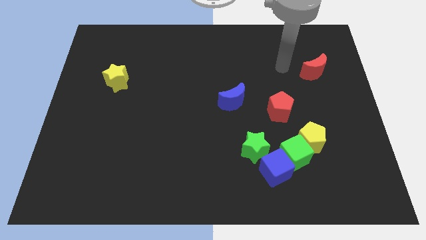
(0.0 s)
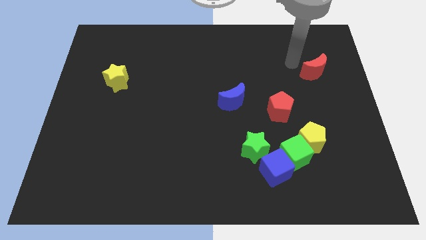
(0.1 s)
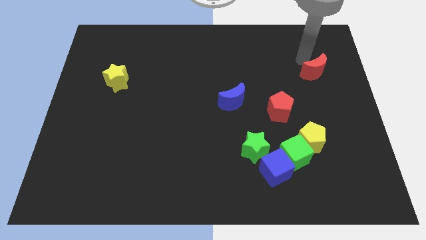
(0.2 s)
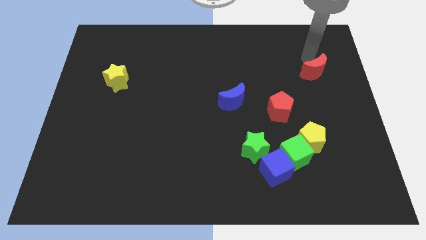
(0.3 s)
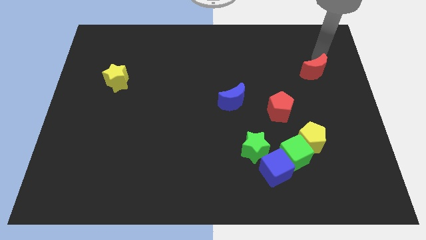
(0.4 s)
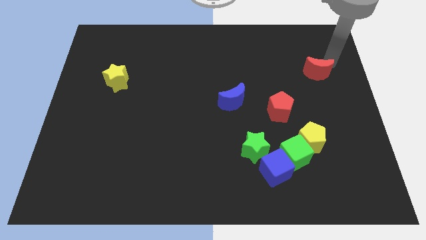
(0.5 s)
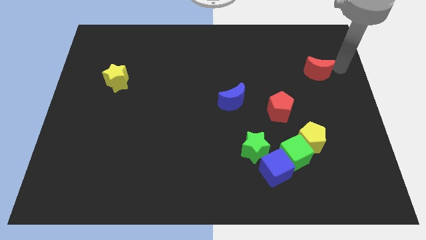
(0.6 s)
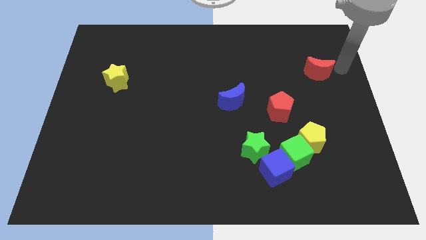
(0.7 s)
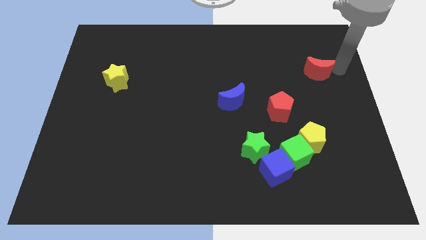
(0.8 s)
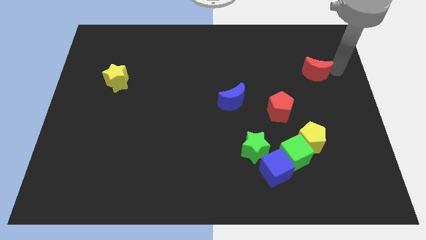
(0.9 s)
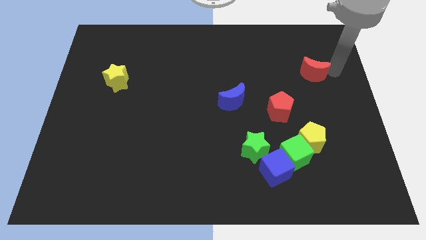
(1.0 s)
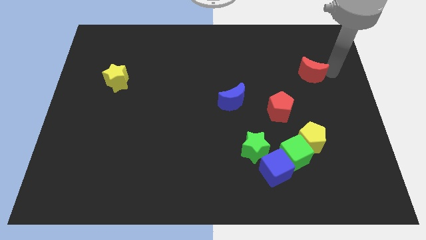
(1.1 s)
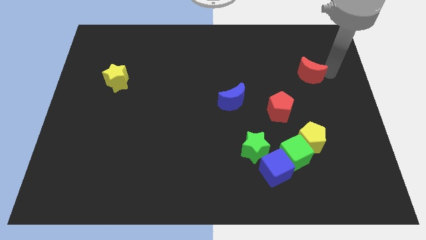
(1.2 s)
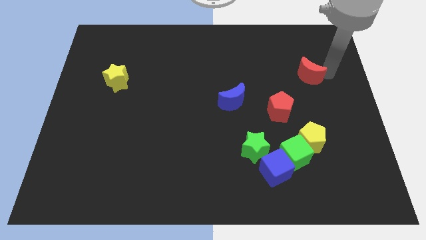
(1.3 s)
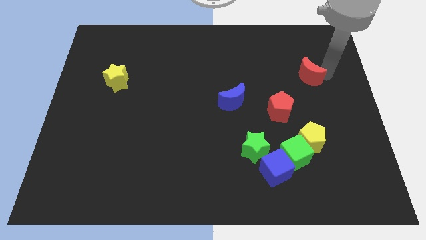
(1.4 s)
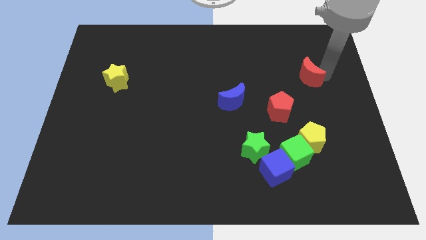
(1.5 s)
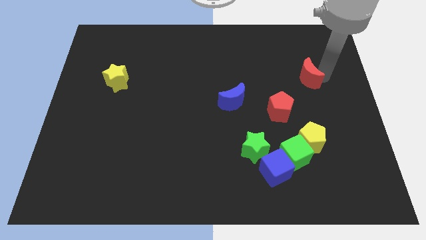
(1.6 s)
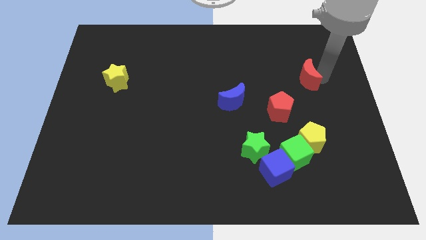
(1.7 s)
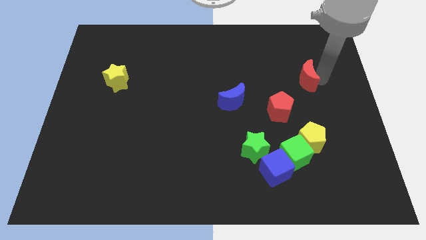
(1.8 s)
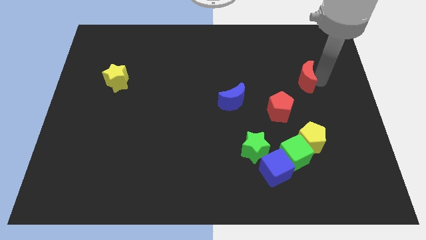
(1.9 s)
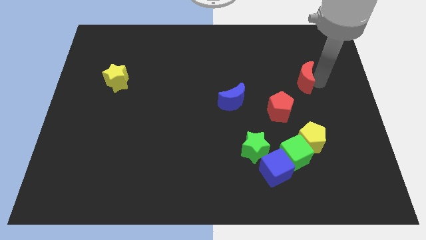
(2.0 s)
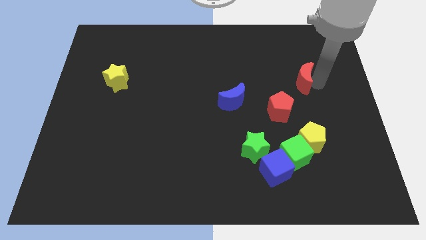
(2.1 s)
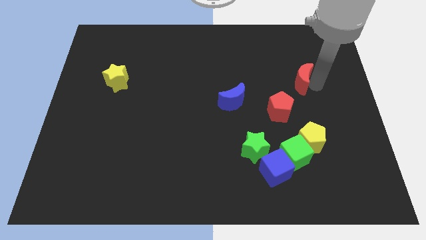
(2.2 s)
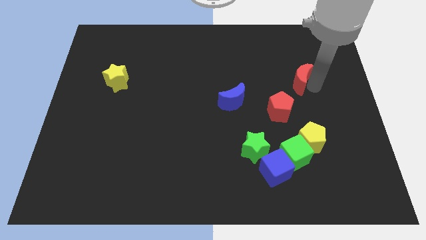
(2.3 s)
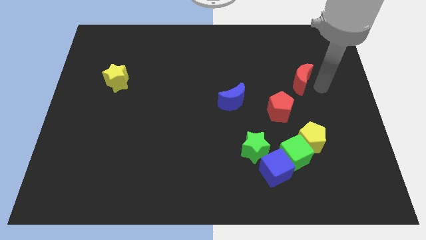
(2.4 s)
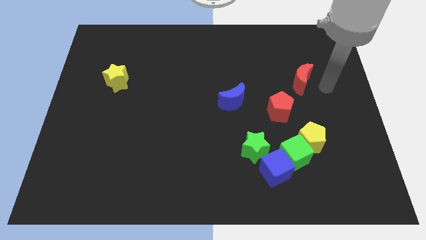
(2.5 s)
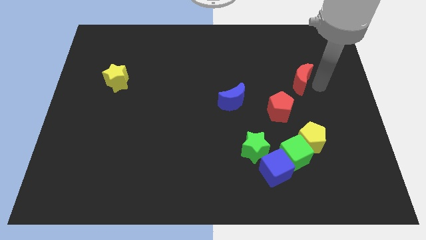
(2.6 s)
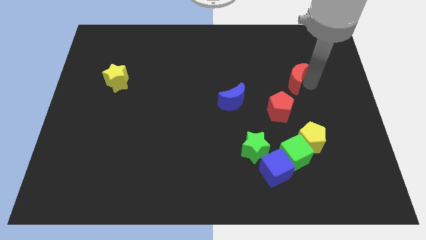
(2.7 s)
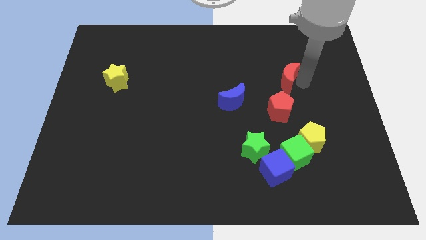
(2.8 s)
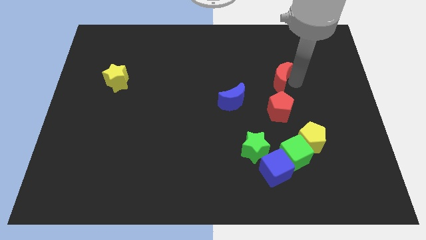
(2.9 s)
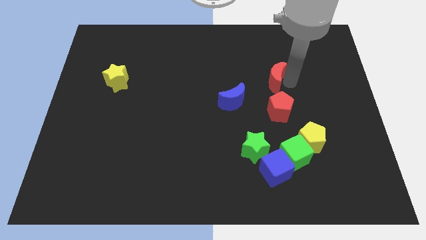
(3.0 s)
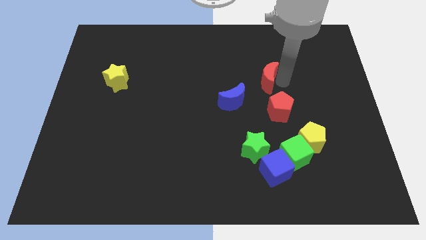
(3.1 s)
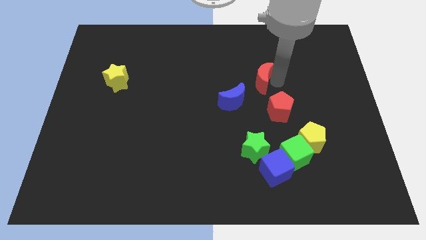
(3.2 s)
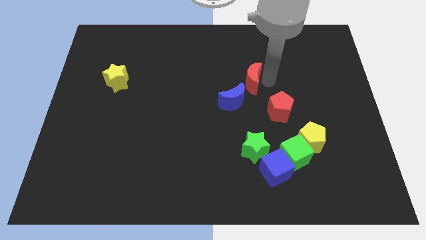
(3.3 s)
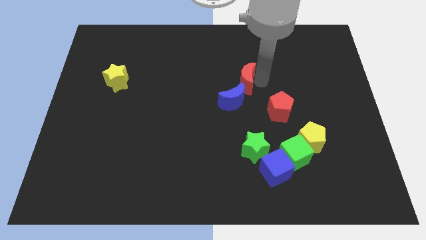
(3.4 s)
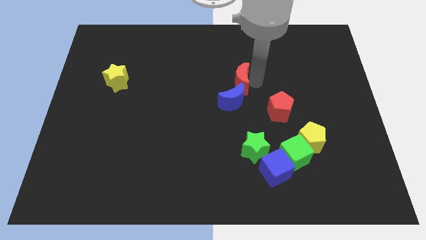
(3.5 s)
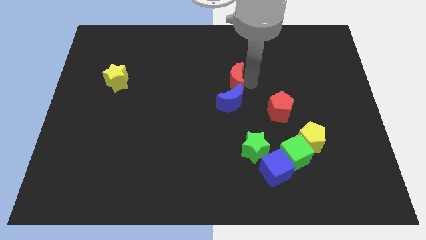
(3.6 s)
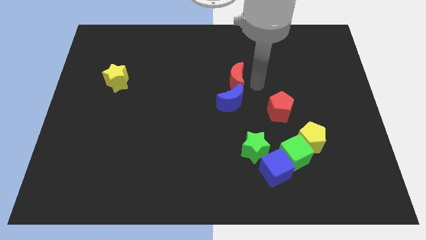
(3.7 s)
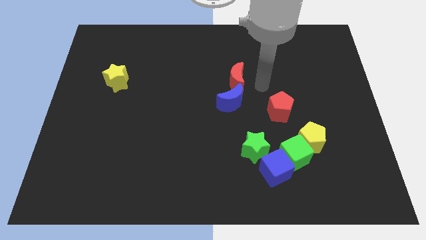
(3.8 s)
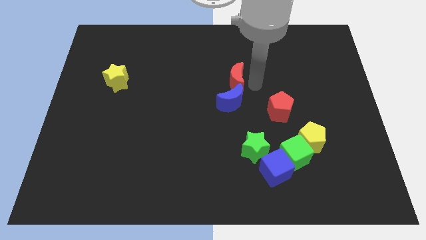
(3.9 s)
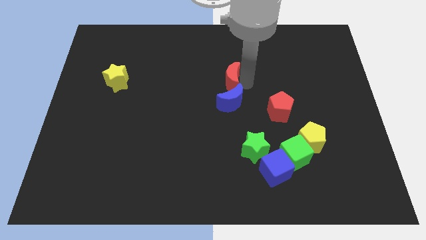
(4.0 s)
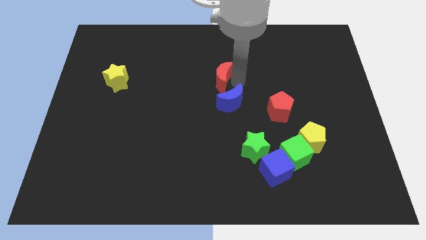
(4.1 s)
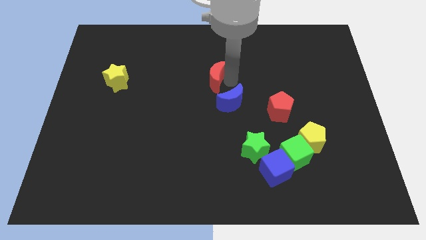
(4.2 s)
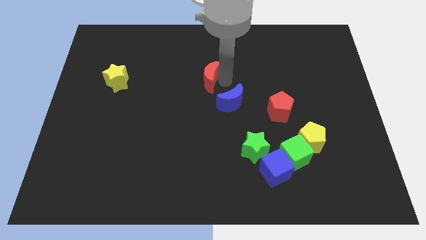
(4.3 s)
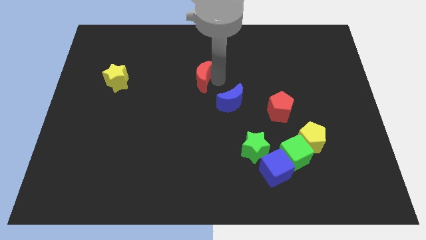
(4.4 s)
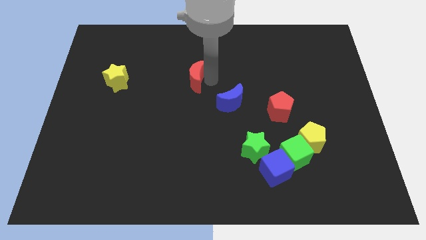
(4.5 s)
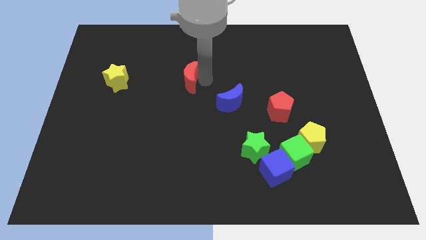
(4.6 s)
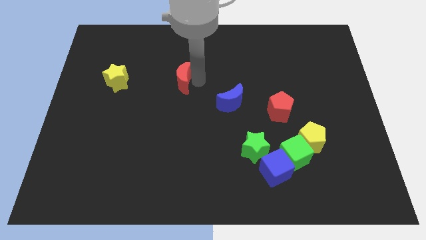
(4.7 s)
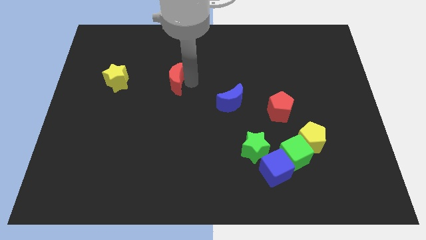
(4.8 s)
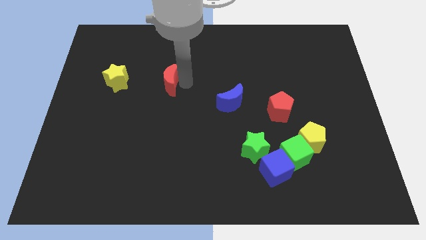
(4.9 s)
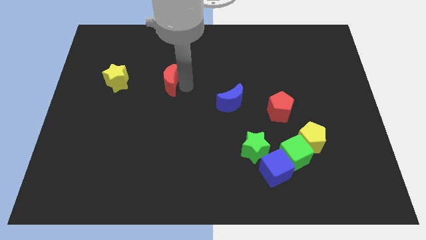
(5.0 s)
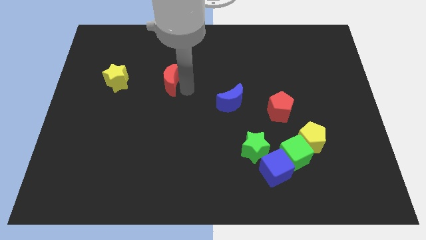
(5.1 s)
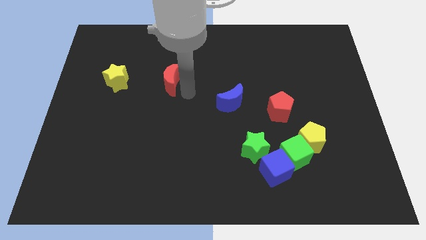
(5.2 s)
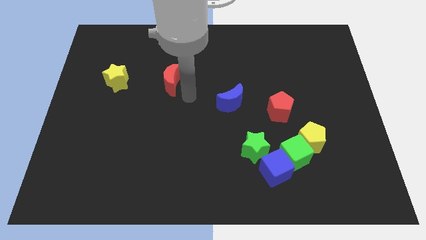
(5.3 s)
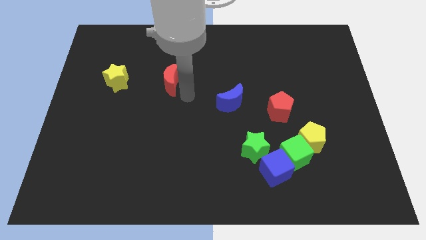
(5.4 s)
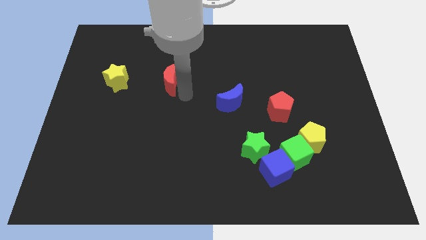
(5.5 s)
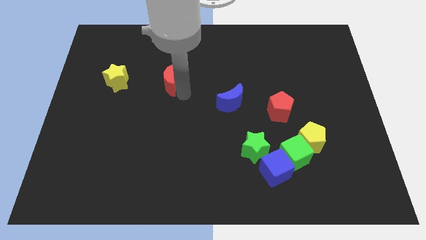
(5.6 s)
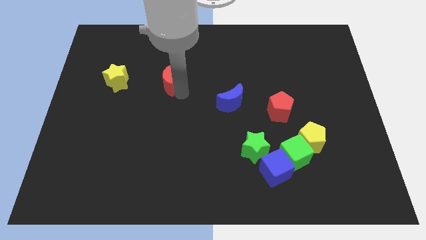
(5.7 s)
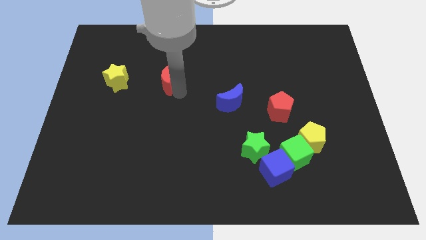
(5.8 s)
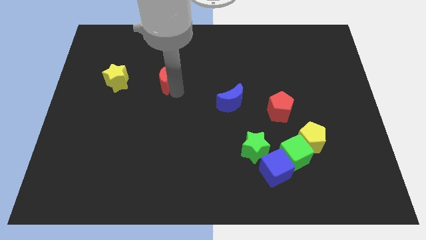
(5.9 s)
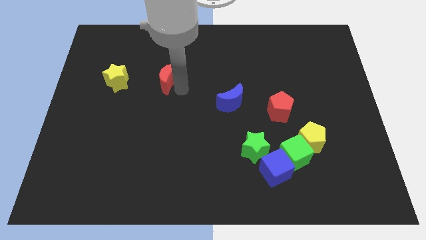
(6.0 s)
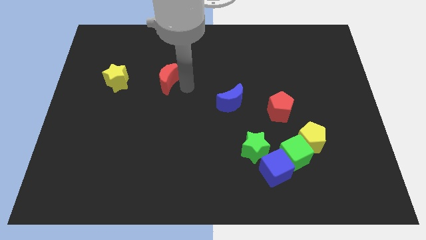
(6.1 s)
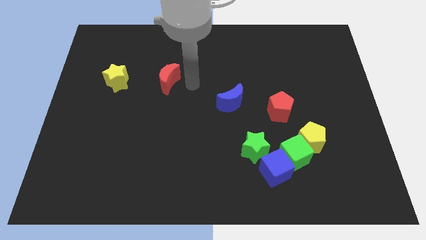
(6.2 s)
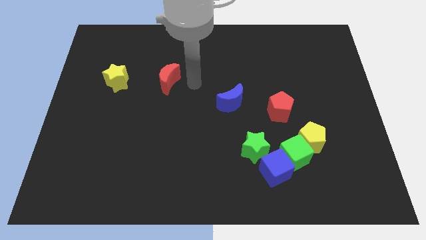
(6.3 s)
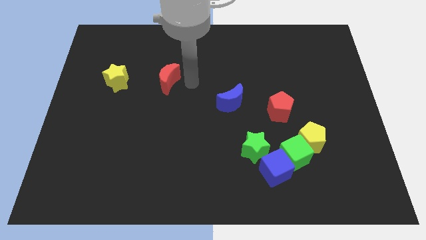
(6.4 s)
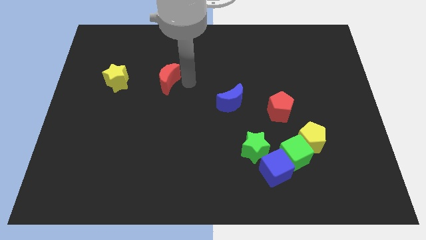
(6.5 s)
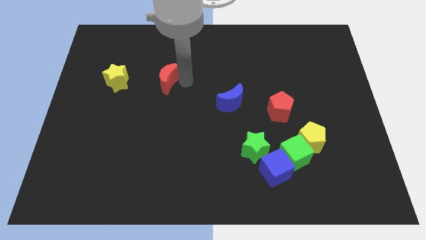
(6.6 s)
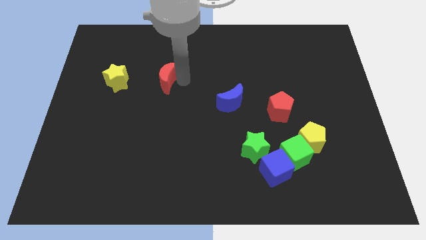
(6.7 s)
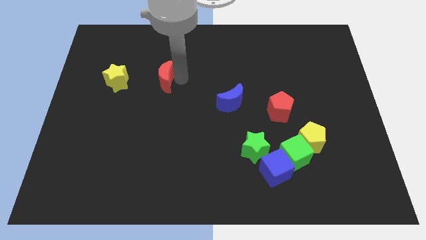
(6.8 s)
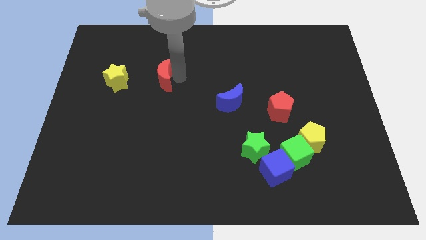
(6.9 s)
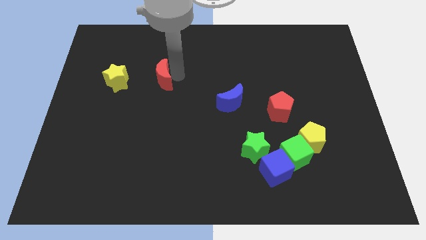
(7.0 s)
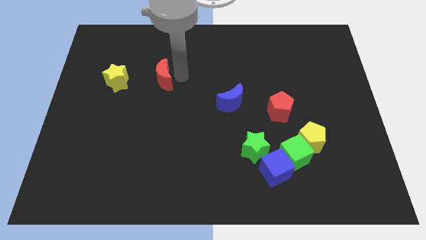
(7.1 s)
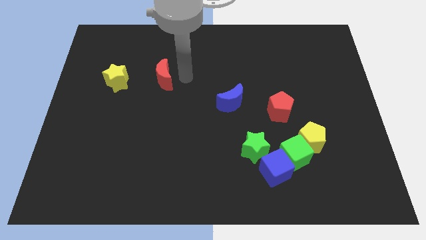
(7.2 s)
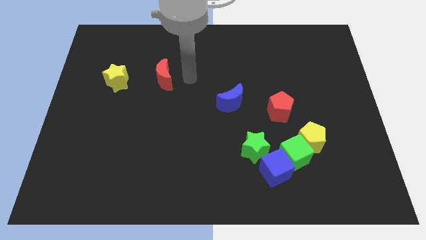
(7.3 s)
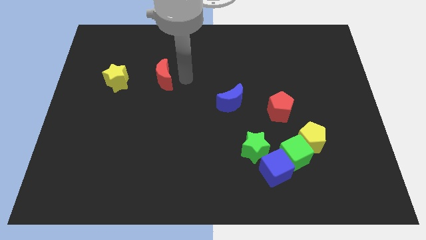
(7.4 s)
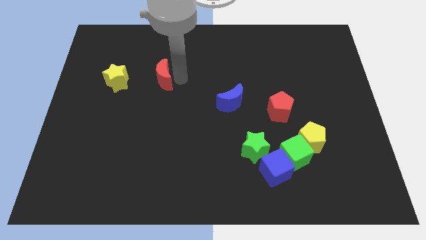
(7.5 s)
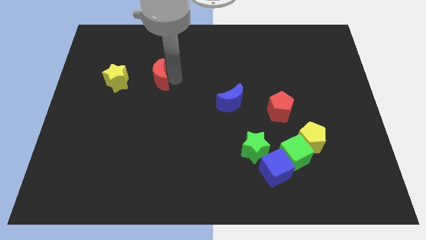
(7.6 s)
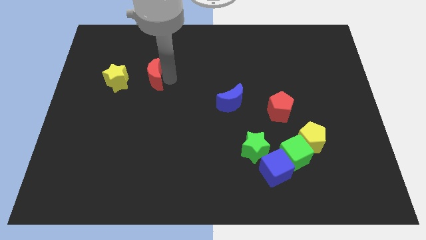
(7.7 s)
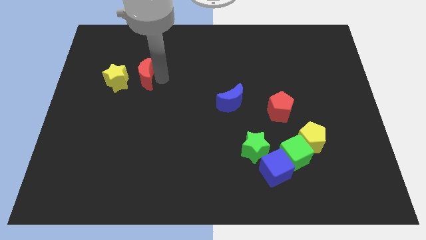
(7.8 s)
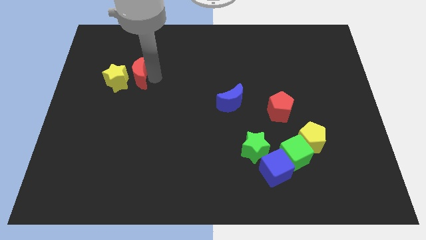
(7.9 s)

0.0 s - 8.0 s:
put the red moon to the yellow star
